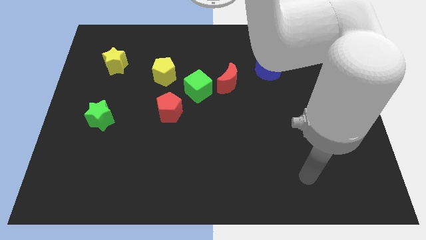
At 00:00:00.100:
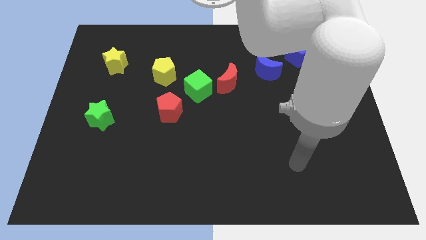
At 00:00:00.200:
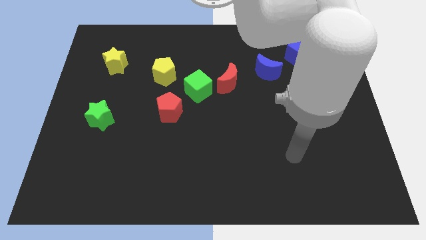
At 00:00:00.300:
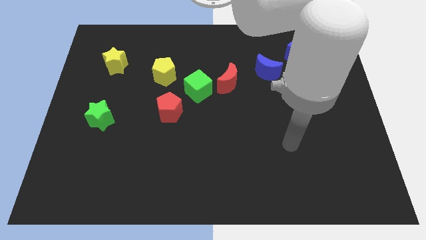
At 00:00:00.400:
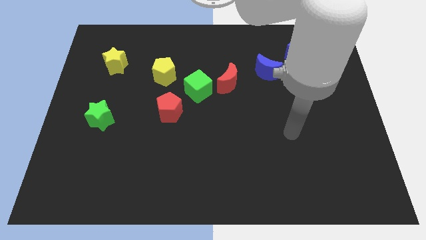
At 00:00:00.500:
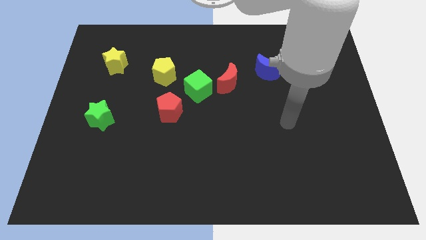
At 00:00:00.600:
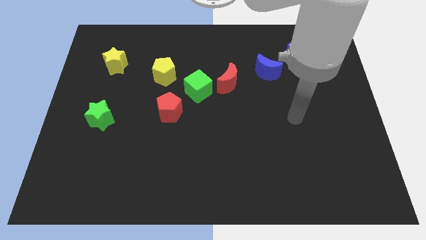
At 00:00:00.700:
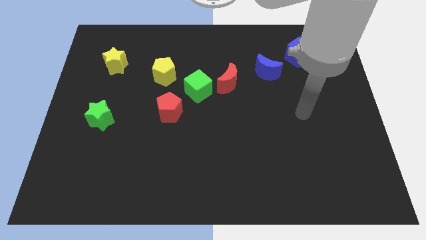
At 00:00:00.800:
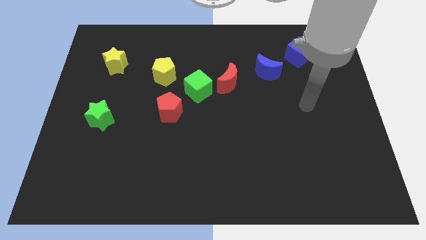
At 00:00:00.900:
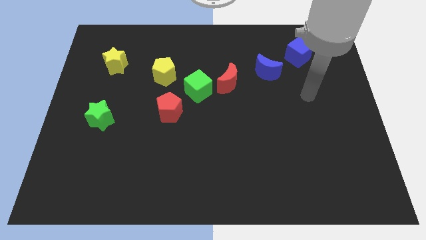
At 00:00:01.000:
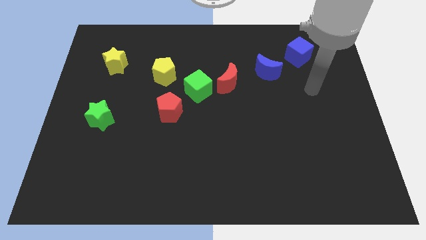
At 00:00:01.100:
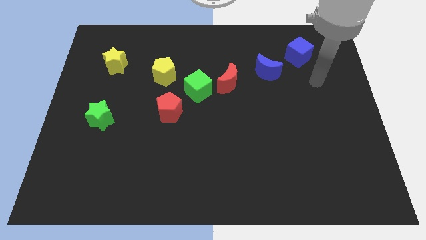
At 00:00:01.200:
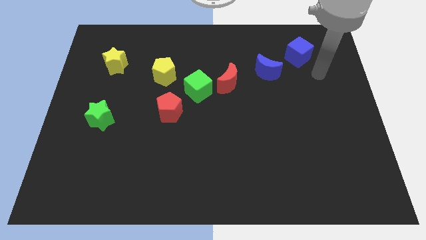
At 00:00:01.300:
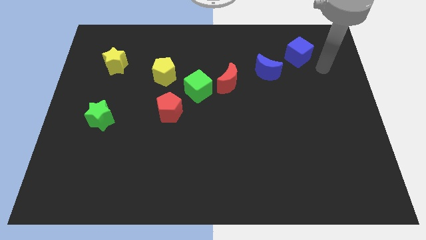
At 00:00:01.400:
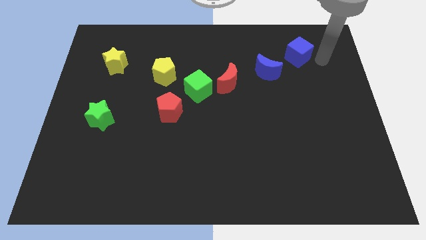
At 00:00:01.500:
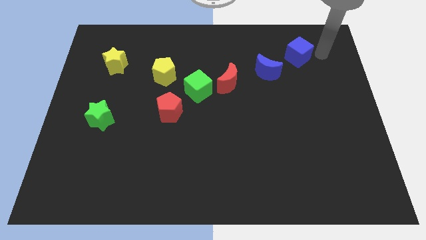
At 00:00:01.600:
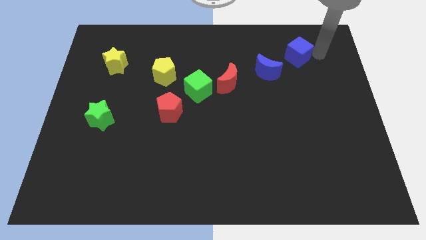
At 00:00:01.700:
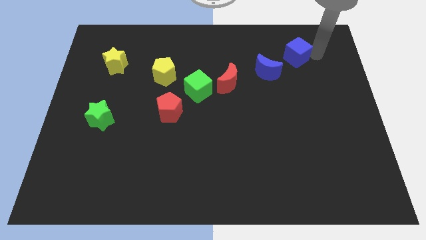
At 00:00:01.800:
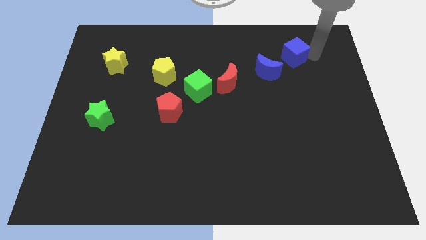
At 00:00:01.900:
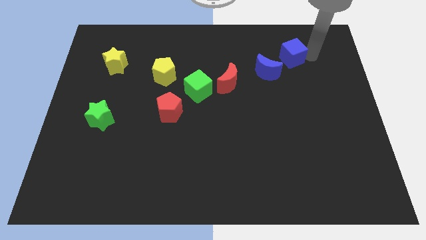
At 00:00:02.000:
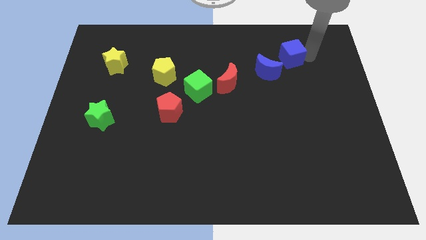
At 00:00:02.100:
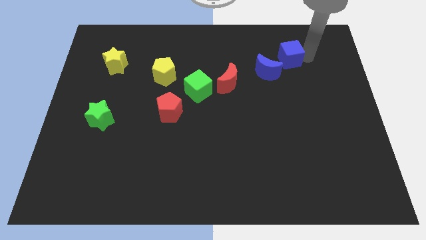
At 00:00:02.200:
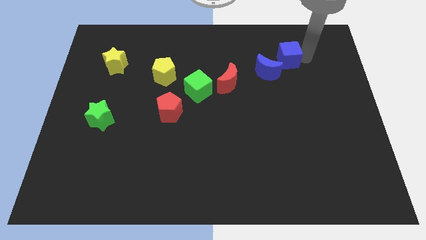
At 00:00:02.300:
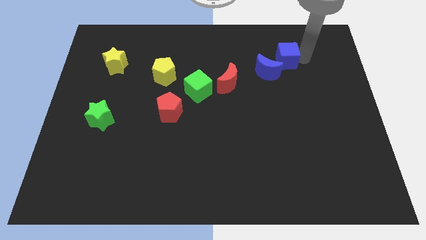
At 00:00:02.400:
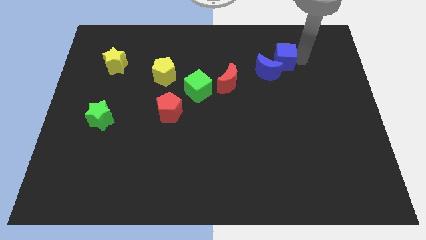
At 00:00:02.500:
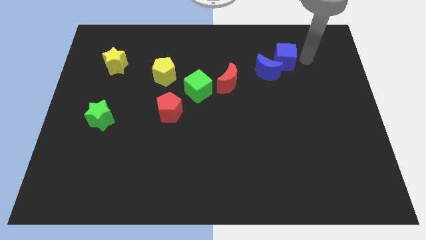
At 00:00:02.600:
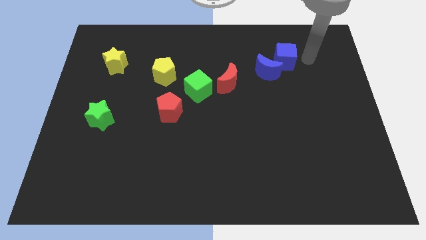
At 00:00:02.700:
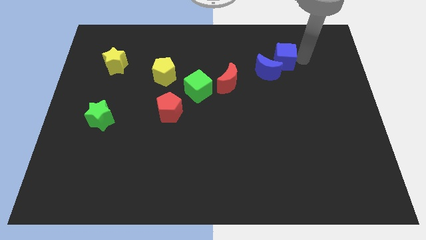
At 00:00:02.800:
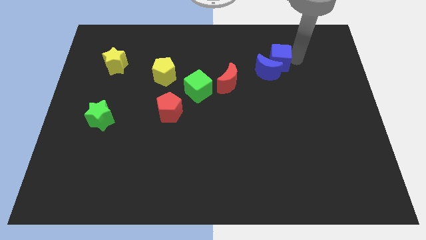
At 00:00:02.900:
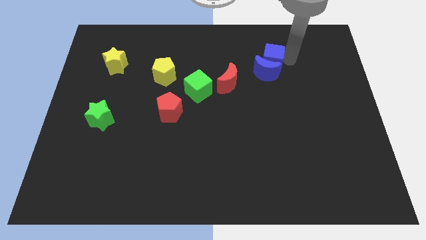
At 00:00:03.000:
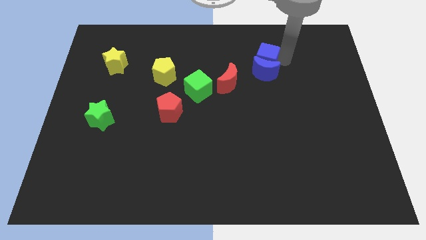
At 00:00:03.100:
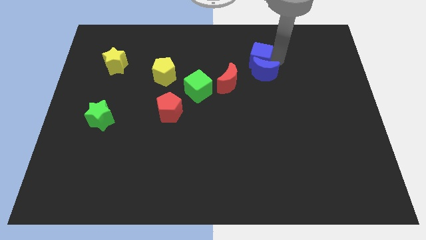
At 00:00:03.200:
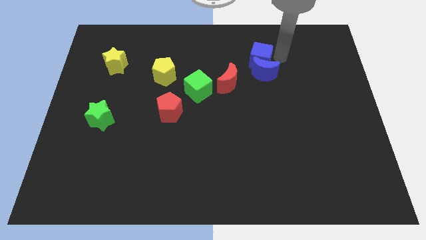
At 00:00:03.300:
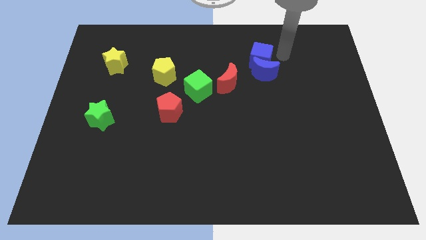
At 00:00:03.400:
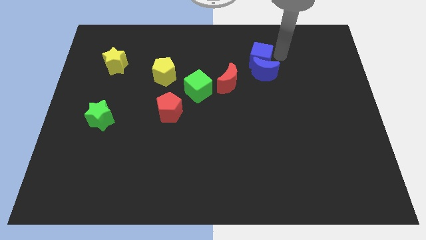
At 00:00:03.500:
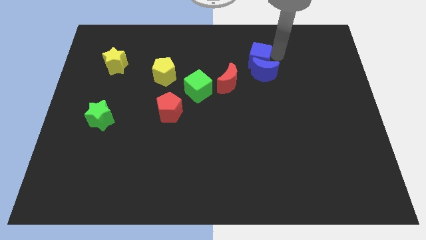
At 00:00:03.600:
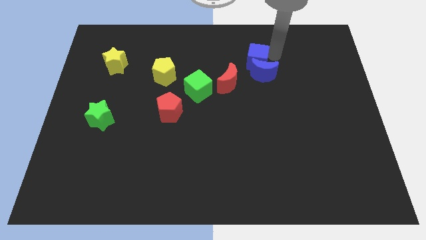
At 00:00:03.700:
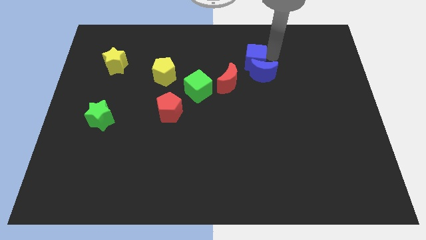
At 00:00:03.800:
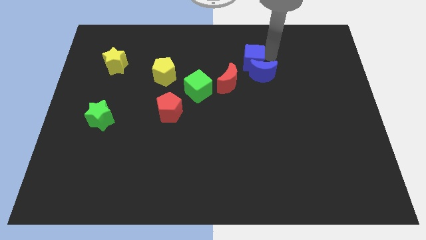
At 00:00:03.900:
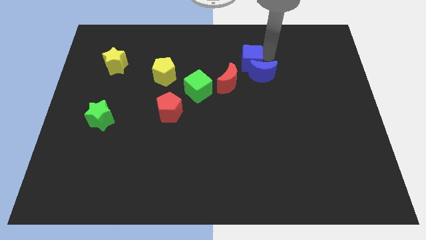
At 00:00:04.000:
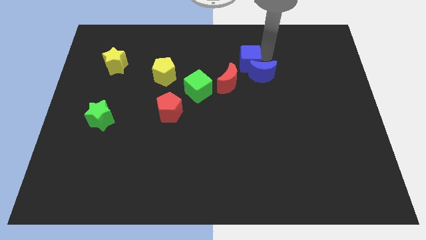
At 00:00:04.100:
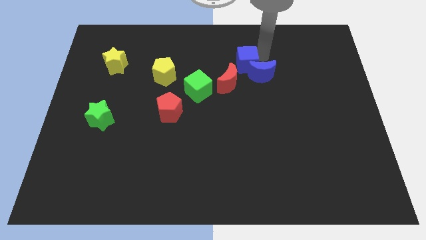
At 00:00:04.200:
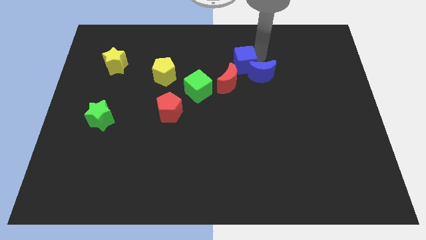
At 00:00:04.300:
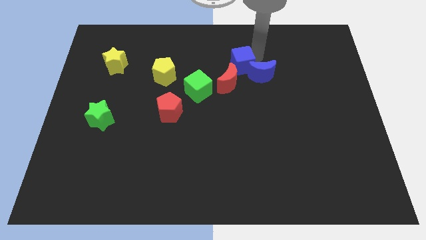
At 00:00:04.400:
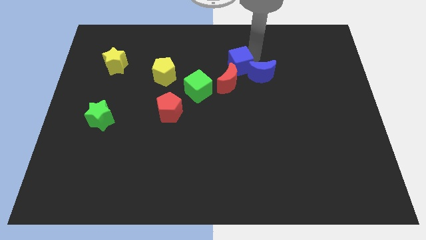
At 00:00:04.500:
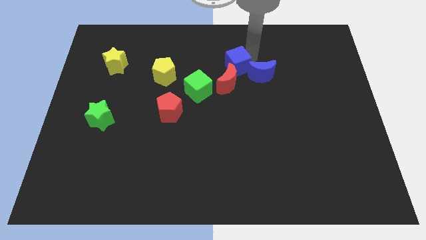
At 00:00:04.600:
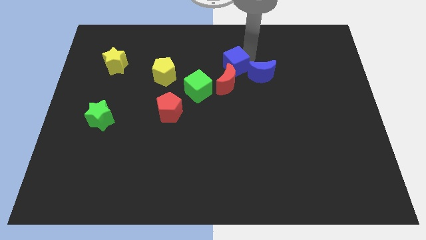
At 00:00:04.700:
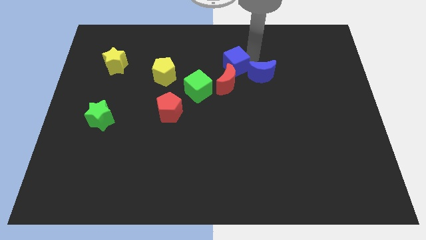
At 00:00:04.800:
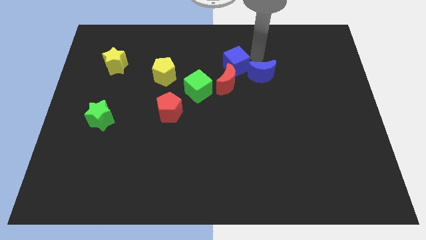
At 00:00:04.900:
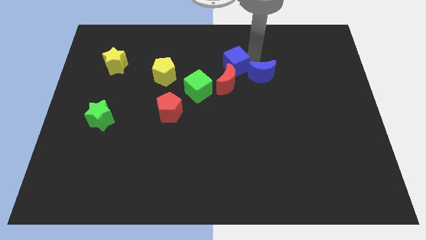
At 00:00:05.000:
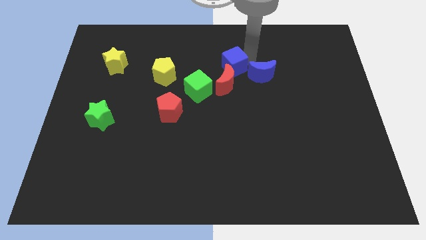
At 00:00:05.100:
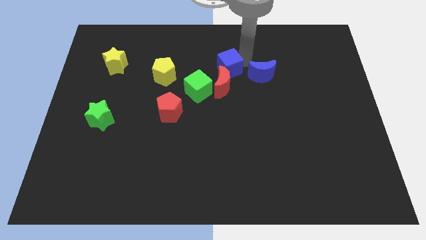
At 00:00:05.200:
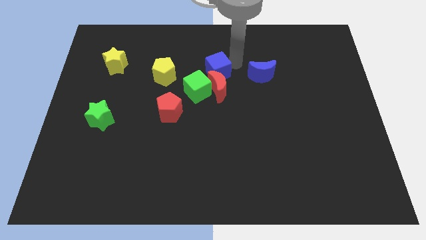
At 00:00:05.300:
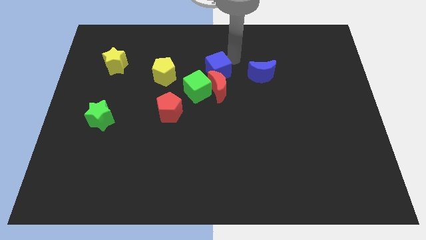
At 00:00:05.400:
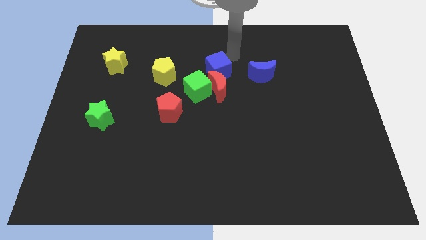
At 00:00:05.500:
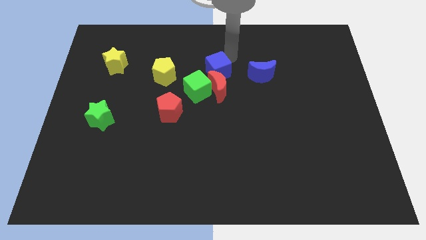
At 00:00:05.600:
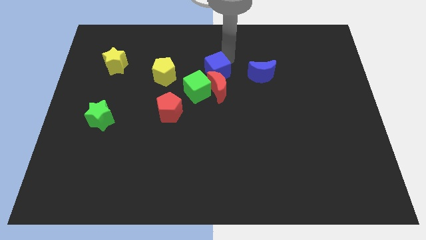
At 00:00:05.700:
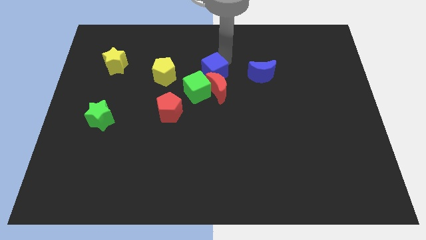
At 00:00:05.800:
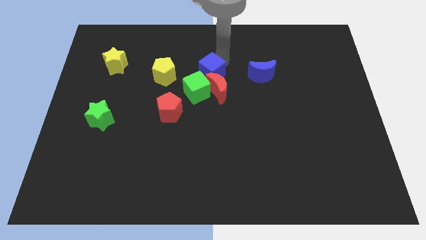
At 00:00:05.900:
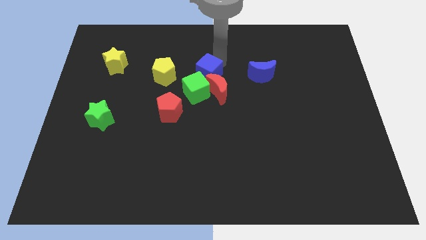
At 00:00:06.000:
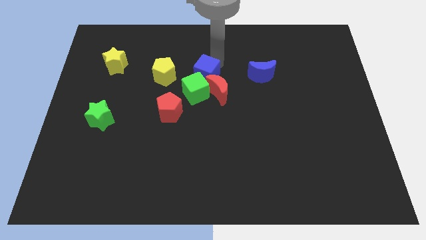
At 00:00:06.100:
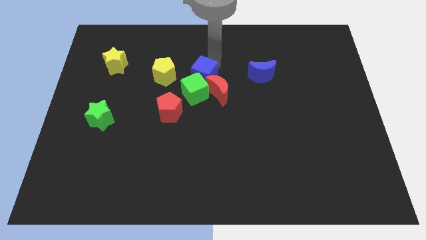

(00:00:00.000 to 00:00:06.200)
move the blue cube next to the green cube
